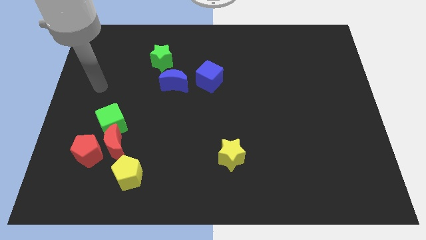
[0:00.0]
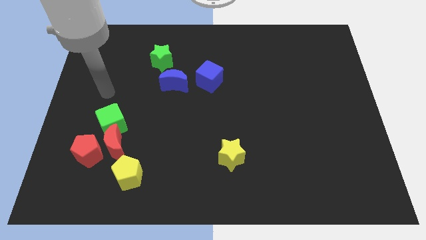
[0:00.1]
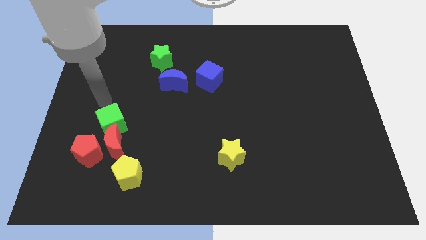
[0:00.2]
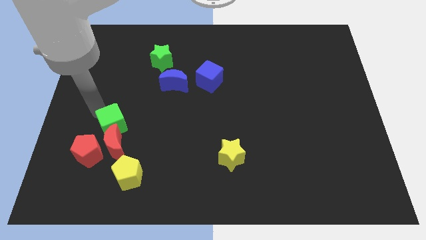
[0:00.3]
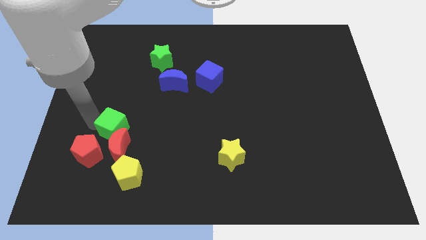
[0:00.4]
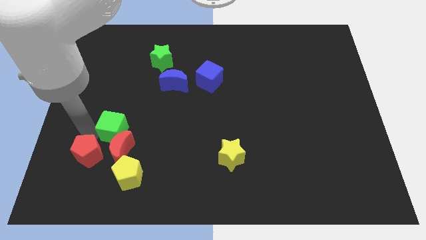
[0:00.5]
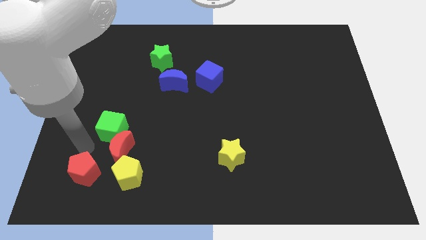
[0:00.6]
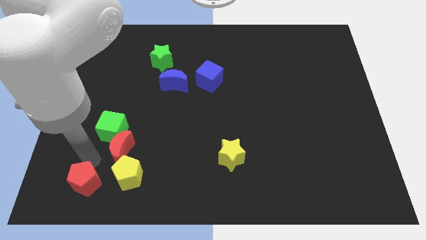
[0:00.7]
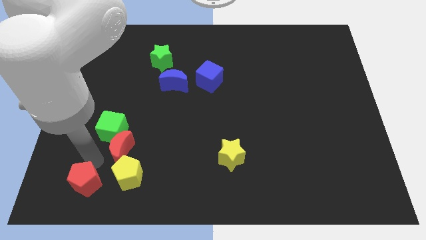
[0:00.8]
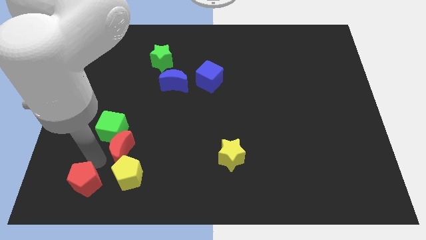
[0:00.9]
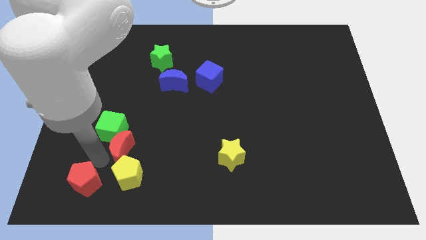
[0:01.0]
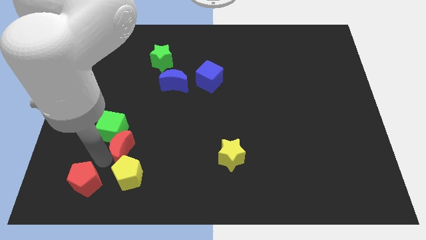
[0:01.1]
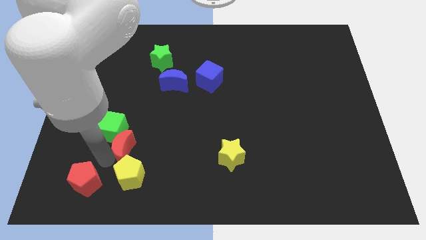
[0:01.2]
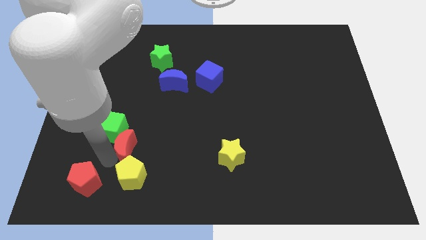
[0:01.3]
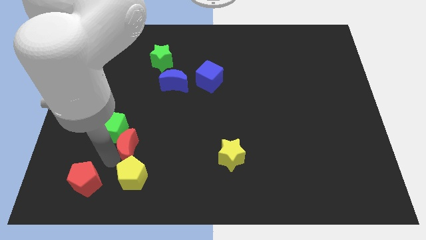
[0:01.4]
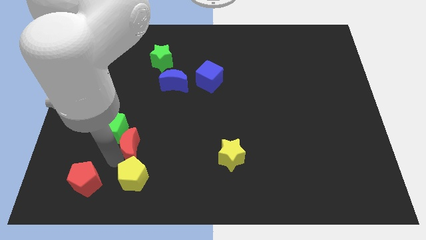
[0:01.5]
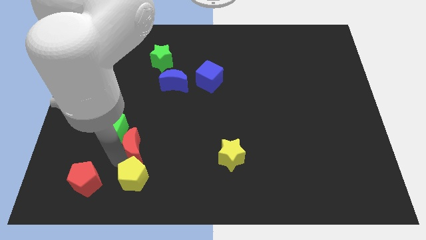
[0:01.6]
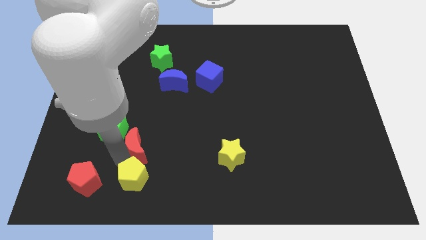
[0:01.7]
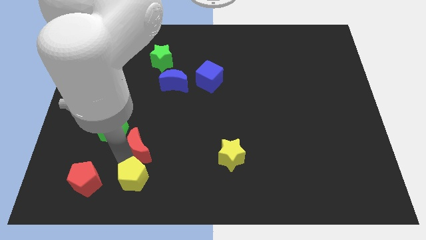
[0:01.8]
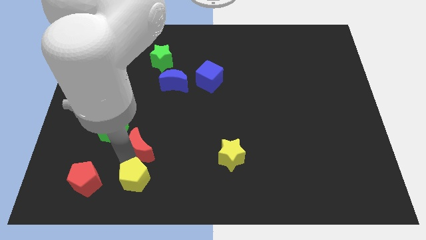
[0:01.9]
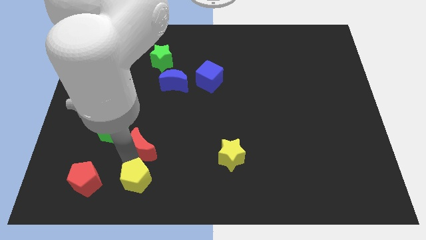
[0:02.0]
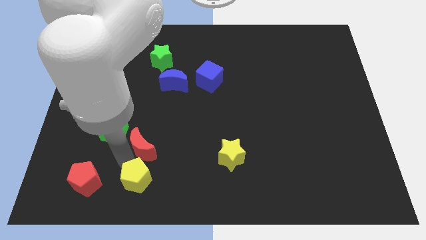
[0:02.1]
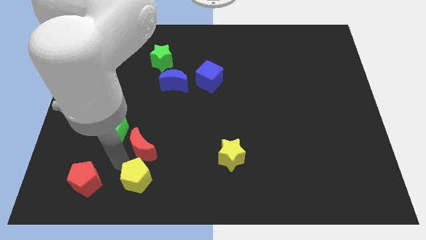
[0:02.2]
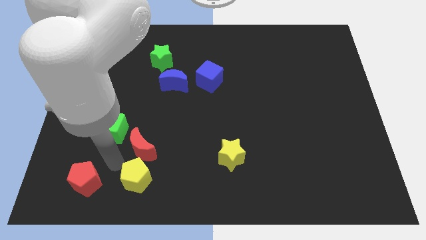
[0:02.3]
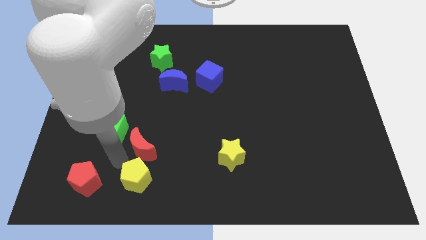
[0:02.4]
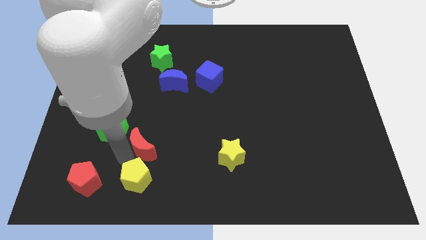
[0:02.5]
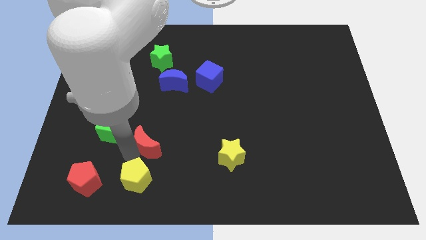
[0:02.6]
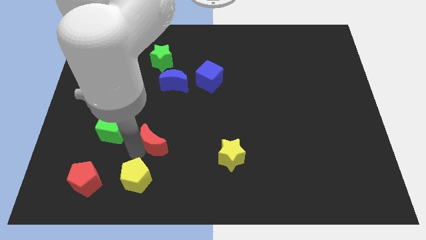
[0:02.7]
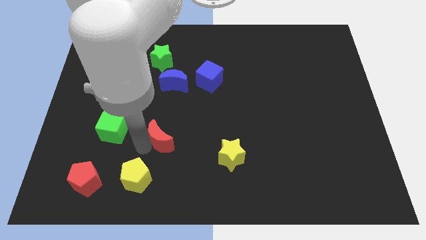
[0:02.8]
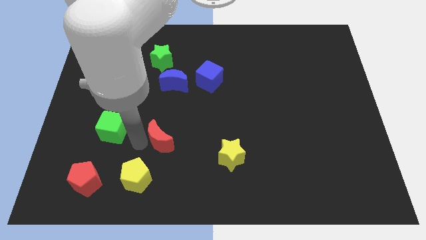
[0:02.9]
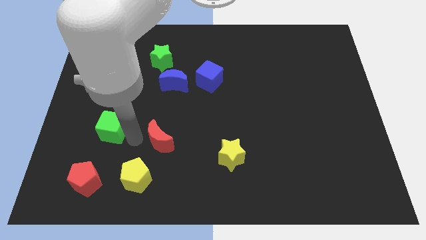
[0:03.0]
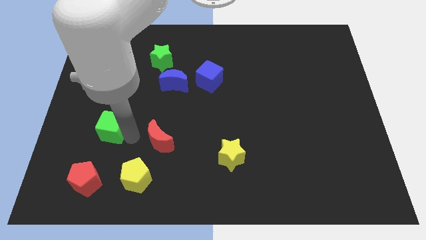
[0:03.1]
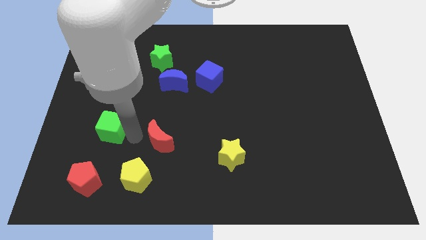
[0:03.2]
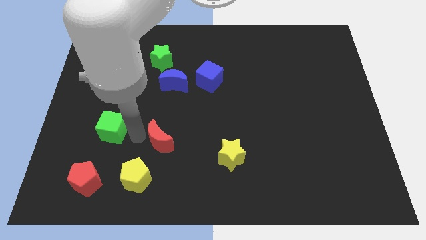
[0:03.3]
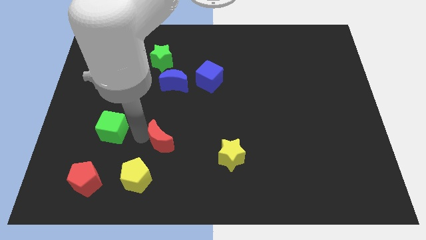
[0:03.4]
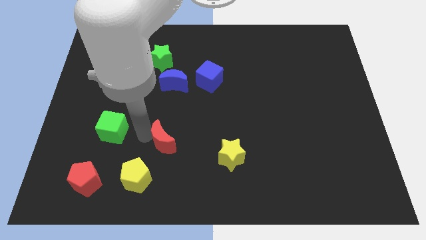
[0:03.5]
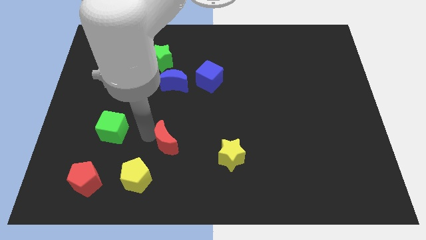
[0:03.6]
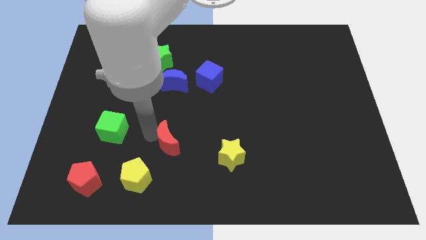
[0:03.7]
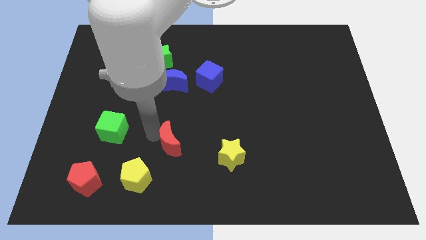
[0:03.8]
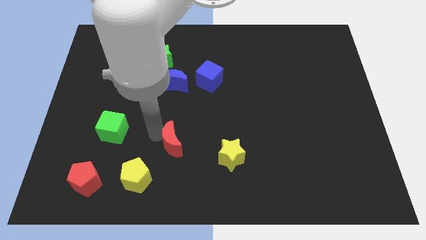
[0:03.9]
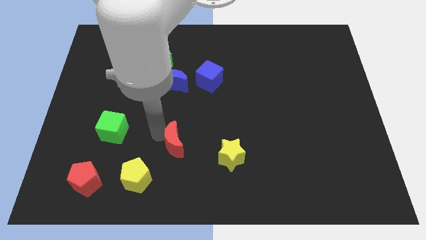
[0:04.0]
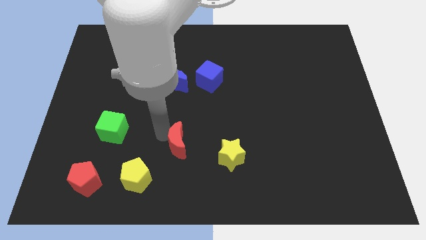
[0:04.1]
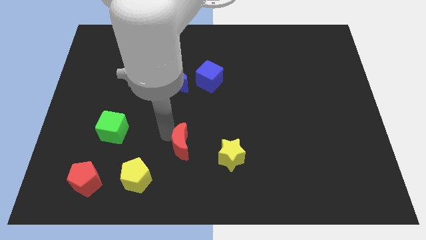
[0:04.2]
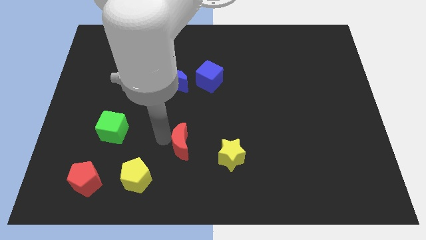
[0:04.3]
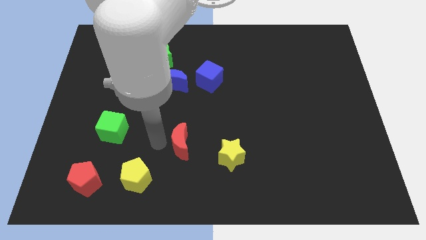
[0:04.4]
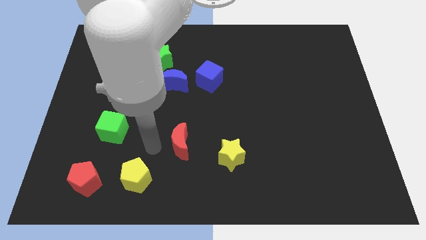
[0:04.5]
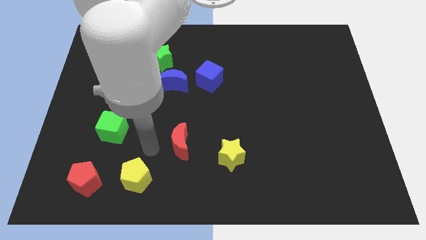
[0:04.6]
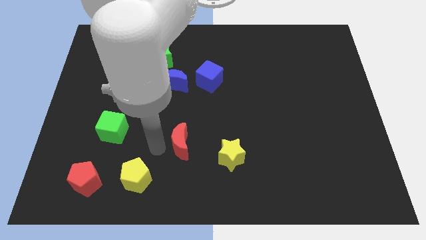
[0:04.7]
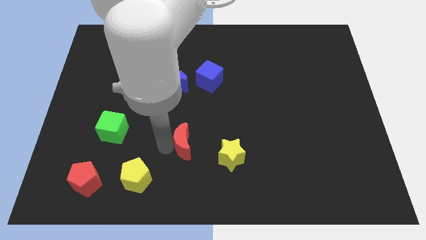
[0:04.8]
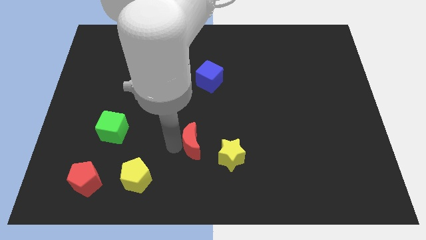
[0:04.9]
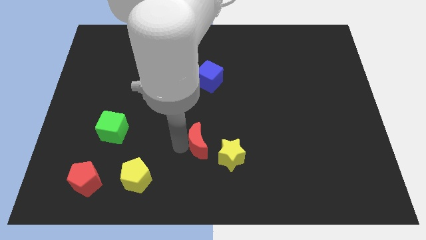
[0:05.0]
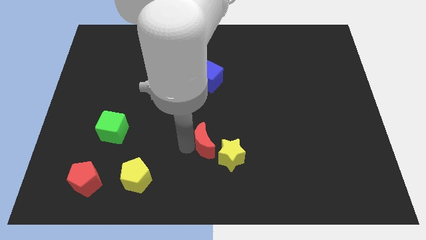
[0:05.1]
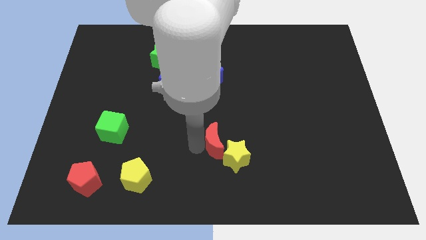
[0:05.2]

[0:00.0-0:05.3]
move the red moon to the right

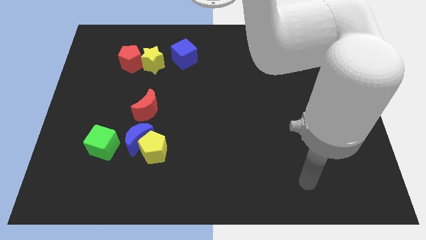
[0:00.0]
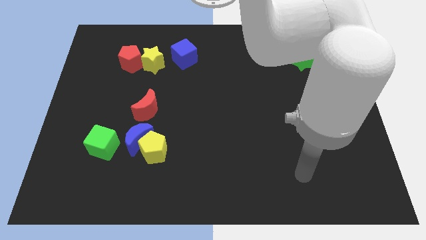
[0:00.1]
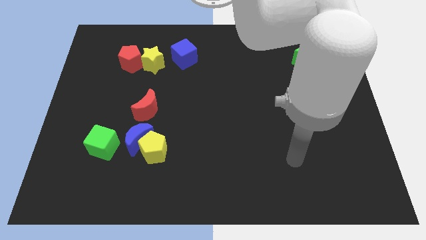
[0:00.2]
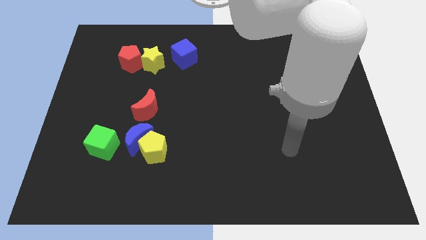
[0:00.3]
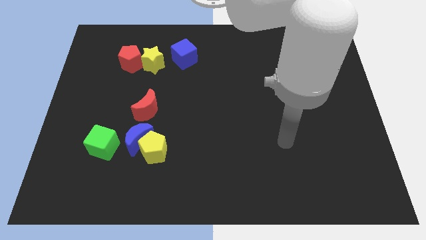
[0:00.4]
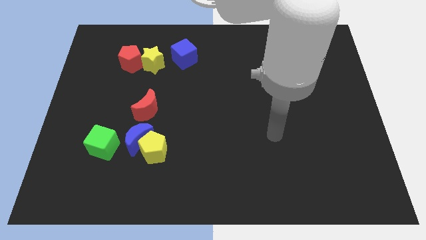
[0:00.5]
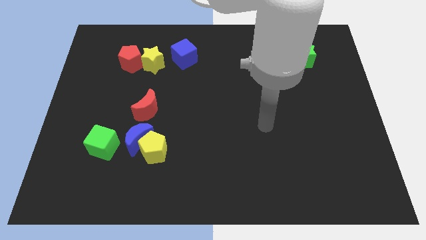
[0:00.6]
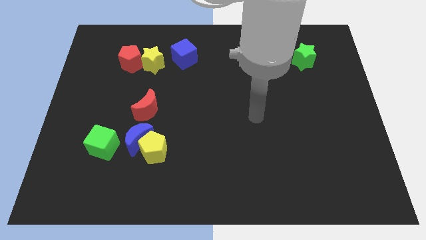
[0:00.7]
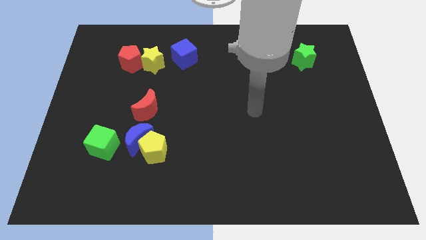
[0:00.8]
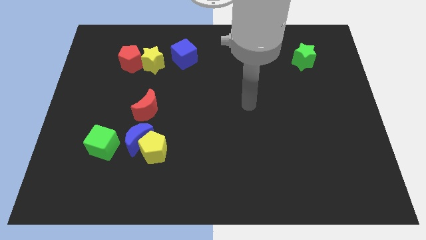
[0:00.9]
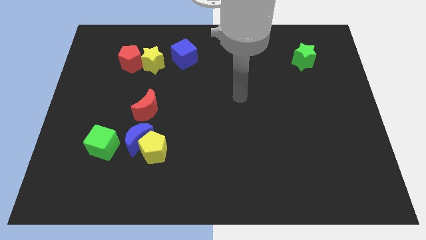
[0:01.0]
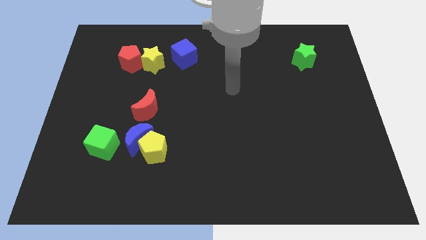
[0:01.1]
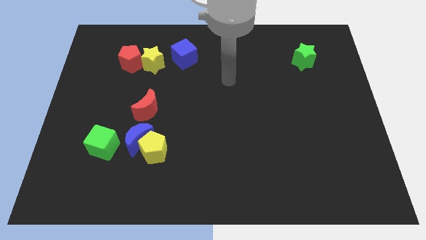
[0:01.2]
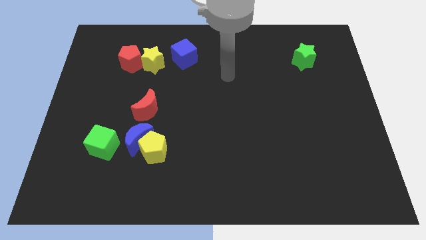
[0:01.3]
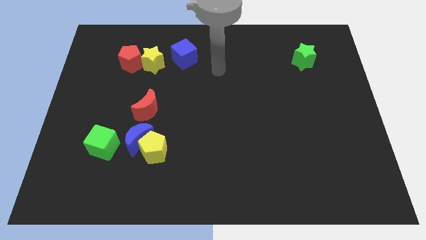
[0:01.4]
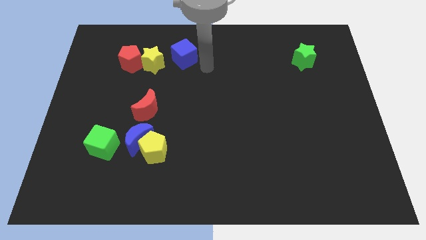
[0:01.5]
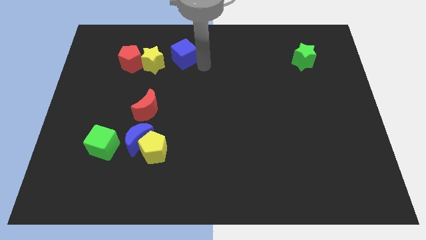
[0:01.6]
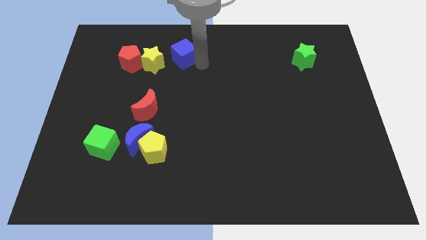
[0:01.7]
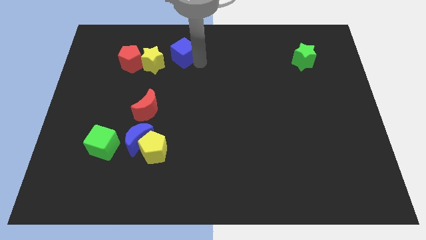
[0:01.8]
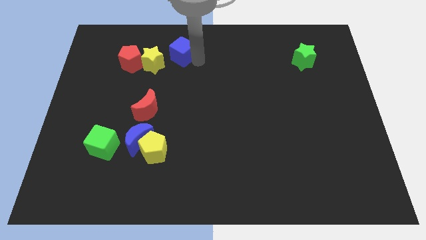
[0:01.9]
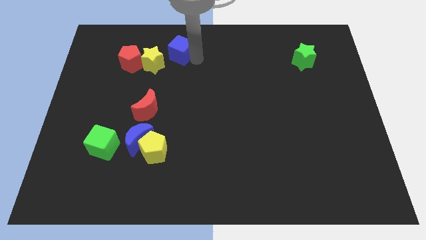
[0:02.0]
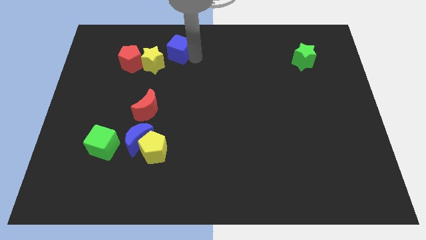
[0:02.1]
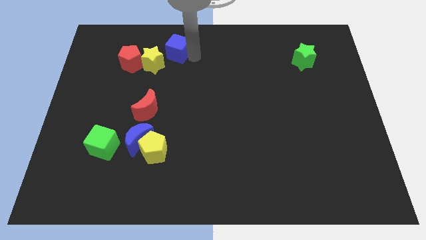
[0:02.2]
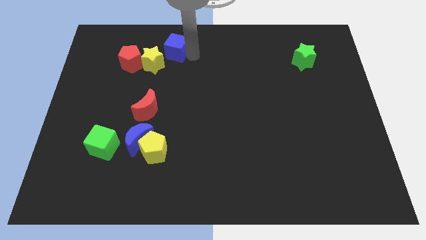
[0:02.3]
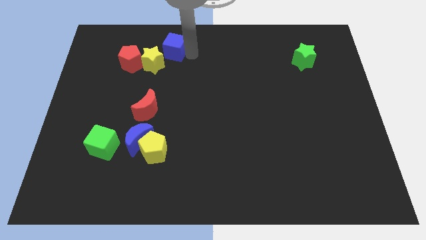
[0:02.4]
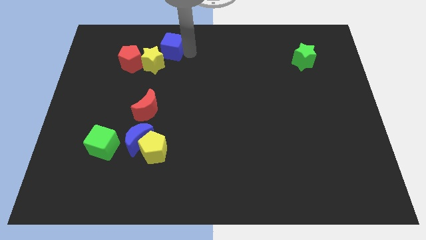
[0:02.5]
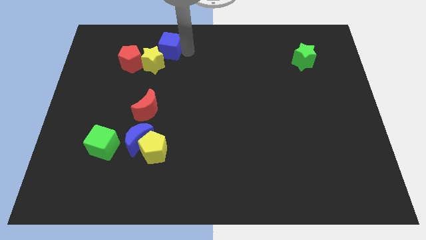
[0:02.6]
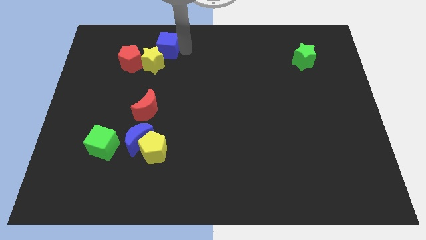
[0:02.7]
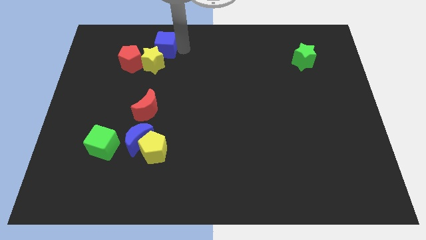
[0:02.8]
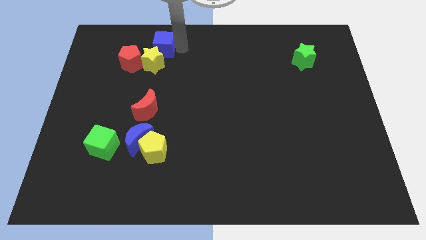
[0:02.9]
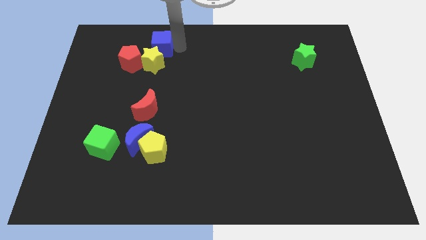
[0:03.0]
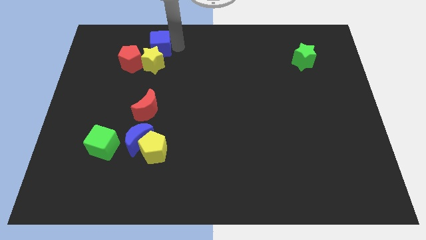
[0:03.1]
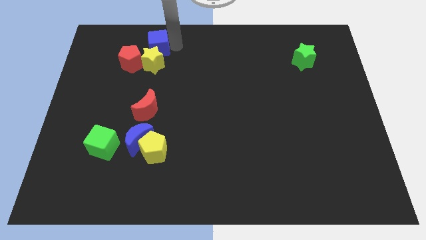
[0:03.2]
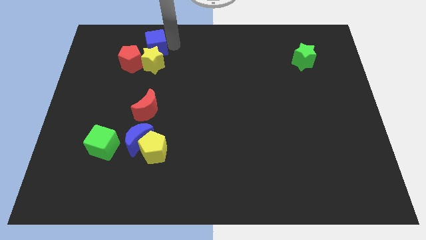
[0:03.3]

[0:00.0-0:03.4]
move the blue cube to the left a bit
